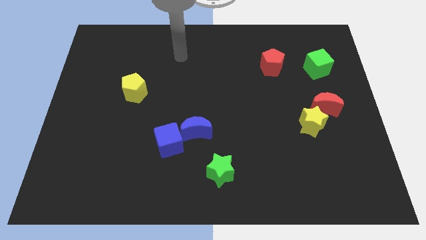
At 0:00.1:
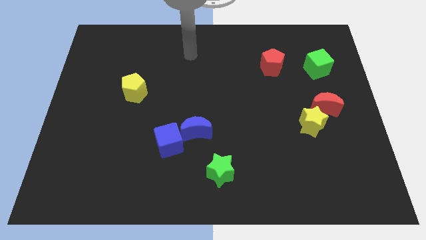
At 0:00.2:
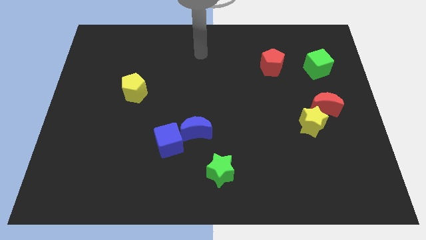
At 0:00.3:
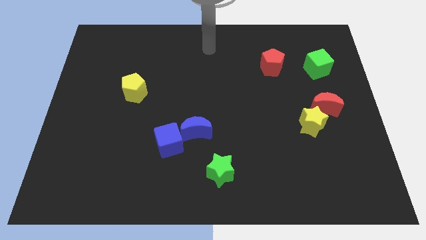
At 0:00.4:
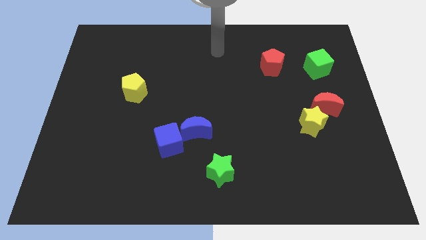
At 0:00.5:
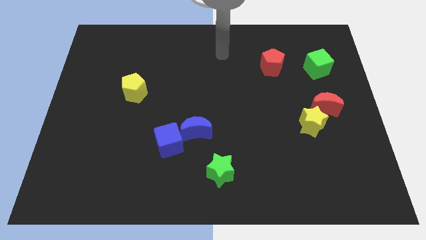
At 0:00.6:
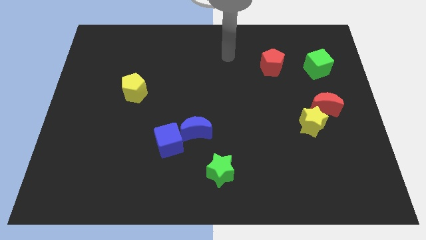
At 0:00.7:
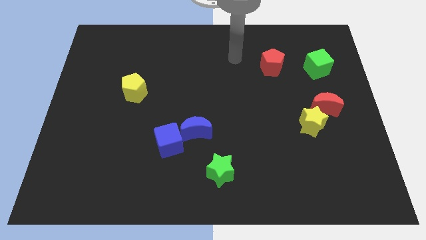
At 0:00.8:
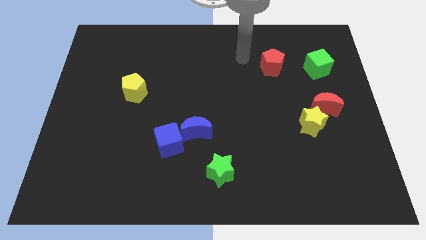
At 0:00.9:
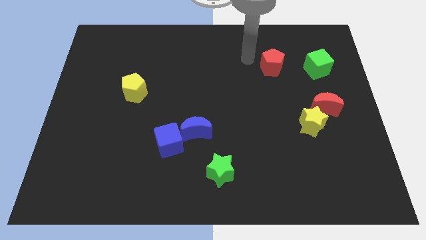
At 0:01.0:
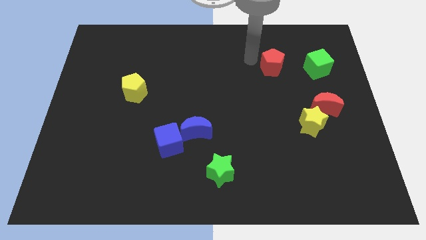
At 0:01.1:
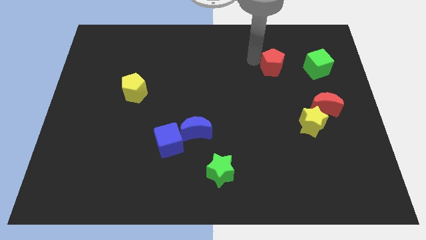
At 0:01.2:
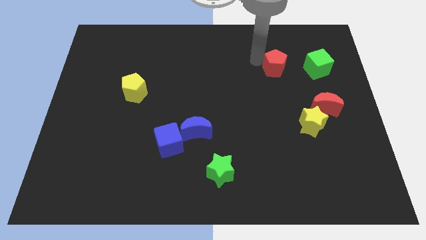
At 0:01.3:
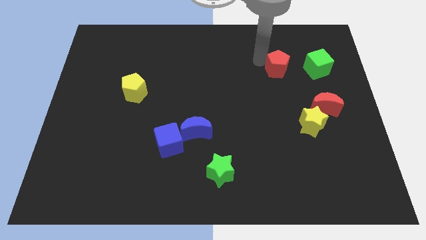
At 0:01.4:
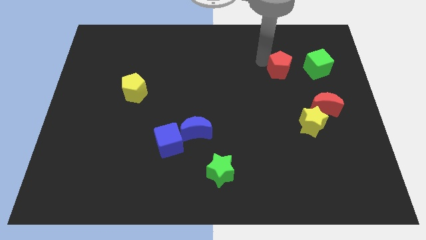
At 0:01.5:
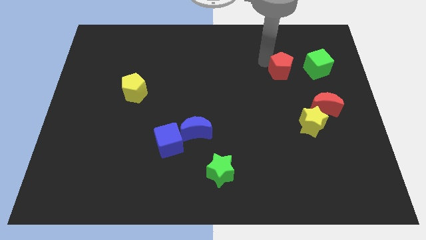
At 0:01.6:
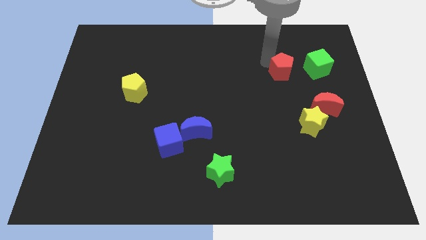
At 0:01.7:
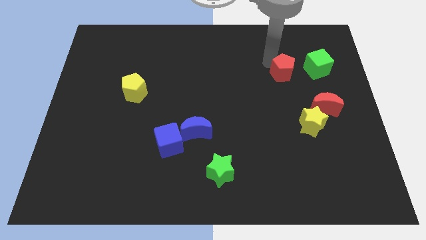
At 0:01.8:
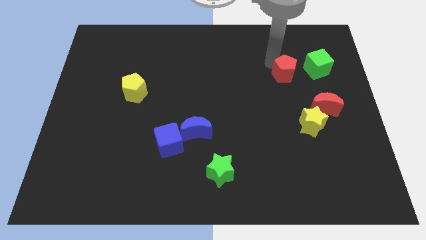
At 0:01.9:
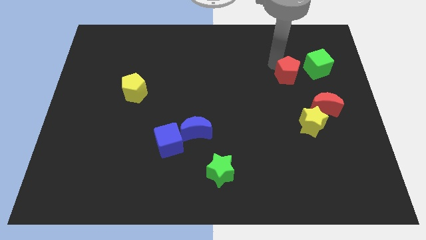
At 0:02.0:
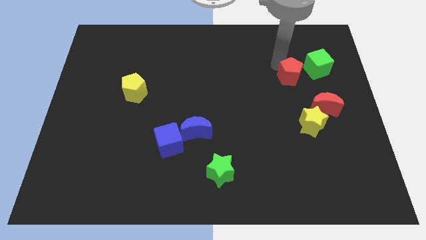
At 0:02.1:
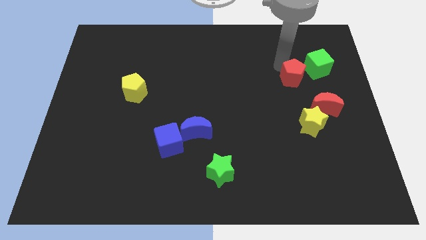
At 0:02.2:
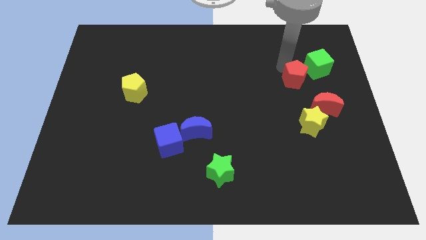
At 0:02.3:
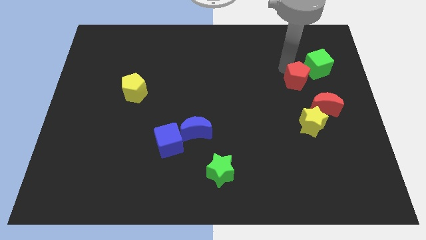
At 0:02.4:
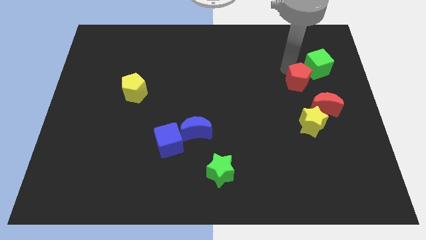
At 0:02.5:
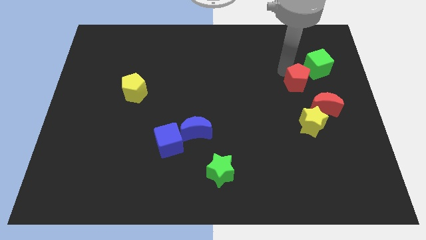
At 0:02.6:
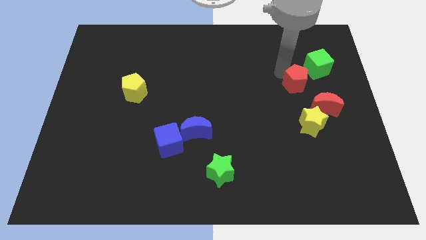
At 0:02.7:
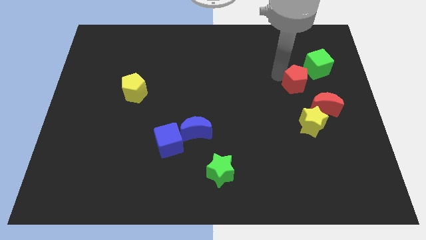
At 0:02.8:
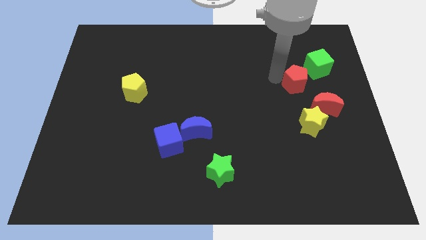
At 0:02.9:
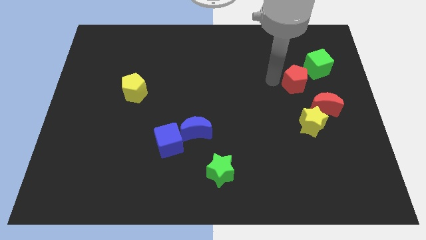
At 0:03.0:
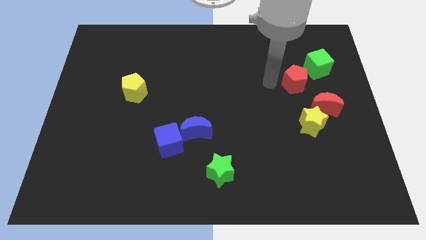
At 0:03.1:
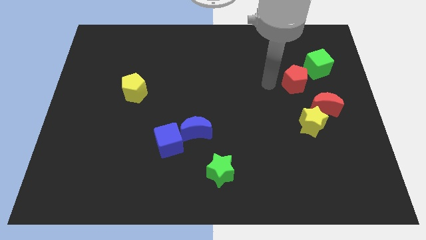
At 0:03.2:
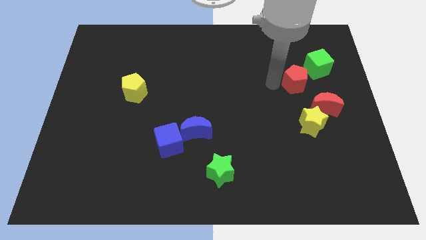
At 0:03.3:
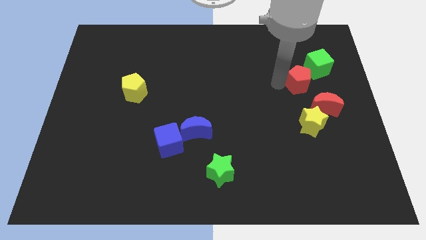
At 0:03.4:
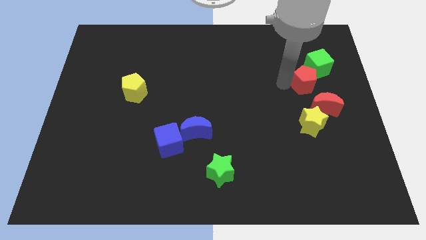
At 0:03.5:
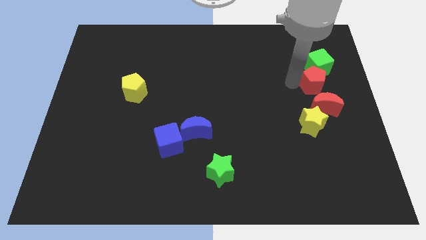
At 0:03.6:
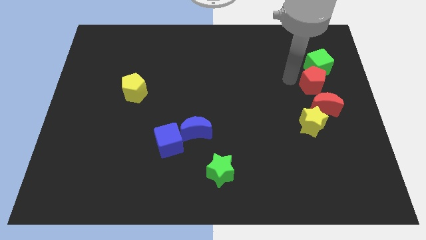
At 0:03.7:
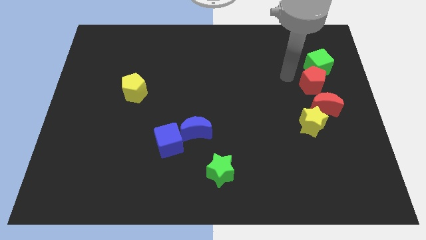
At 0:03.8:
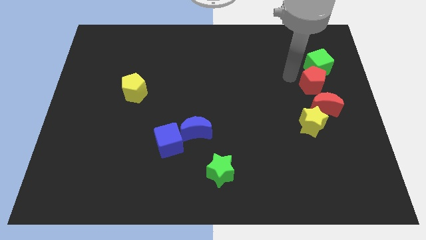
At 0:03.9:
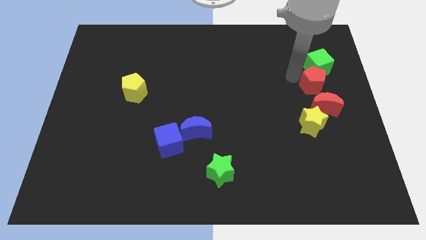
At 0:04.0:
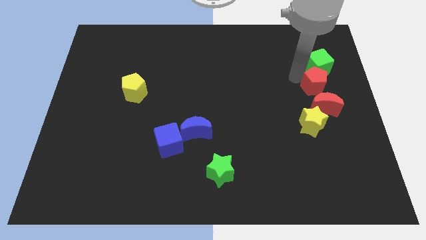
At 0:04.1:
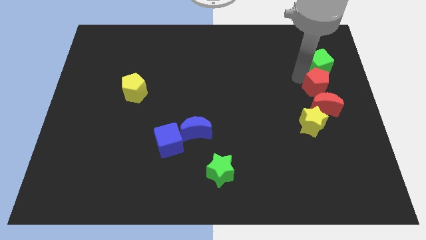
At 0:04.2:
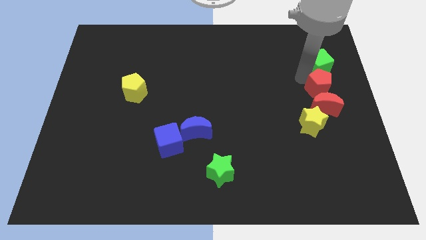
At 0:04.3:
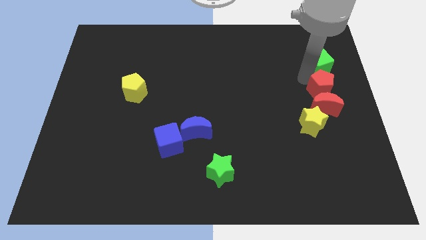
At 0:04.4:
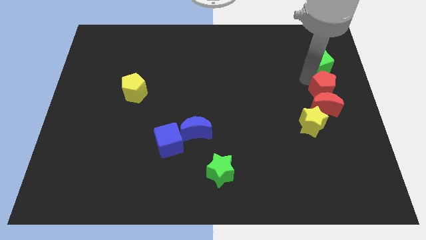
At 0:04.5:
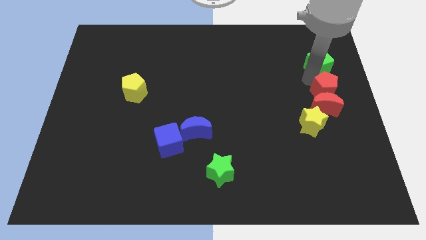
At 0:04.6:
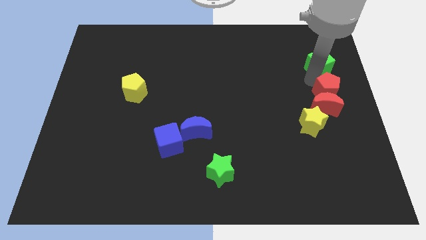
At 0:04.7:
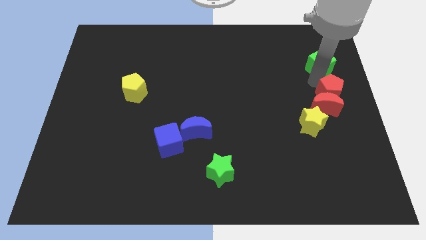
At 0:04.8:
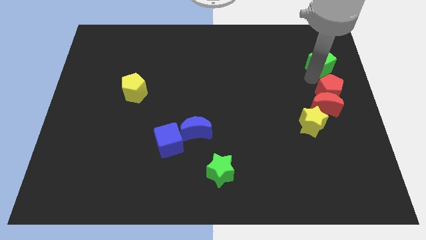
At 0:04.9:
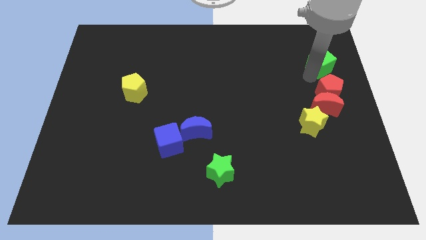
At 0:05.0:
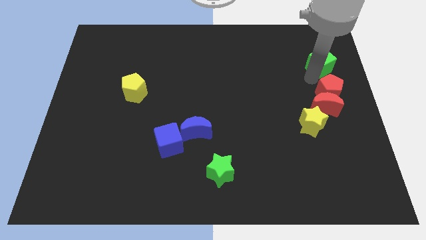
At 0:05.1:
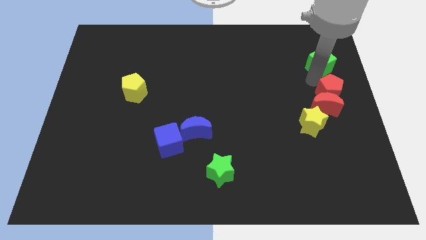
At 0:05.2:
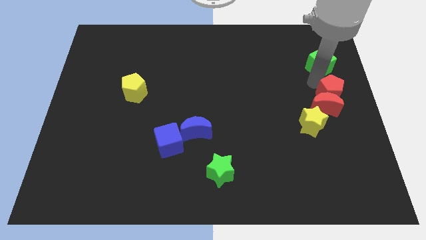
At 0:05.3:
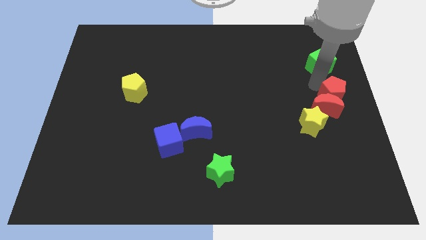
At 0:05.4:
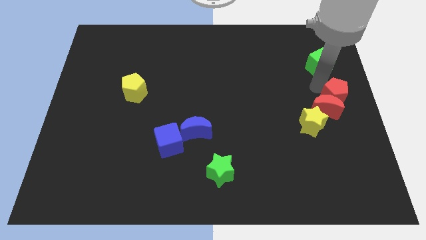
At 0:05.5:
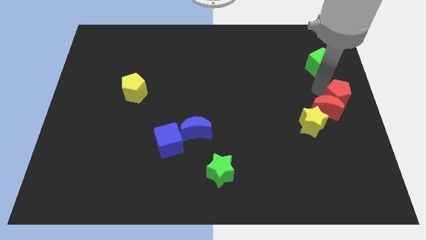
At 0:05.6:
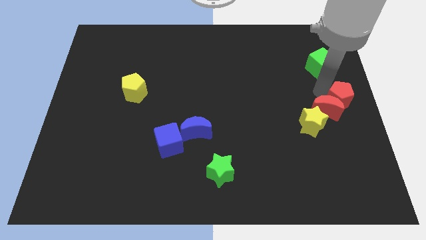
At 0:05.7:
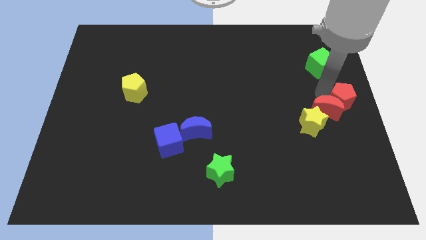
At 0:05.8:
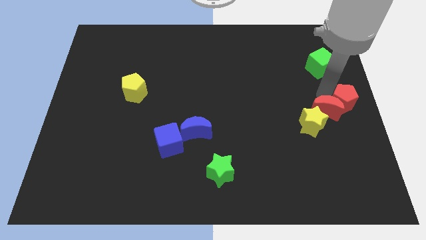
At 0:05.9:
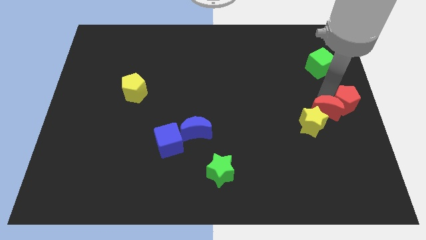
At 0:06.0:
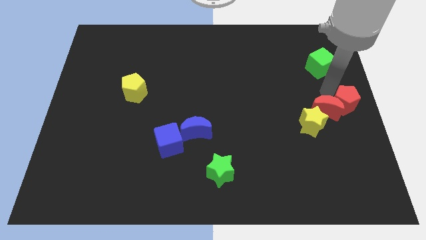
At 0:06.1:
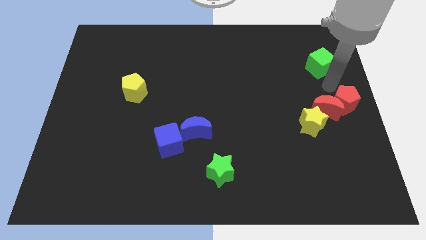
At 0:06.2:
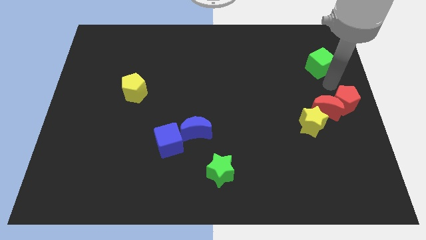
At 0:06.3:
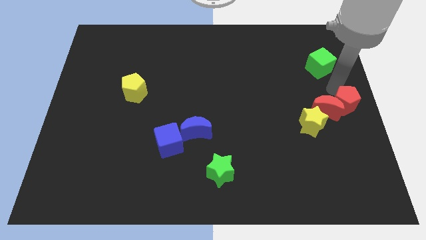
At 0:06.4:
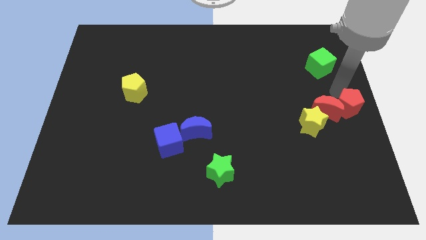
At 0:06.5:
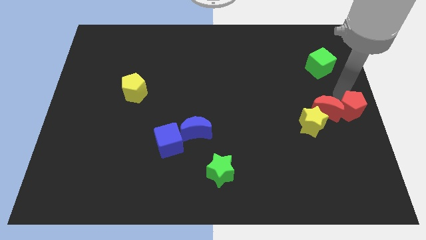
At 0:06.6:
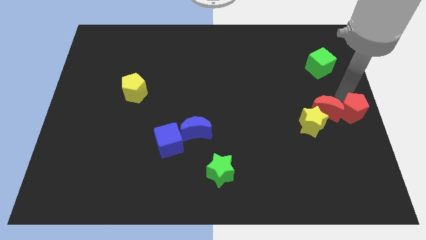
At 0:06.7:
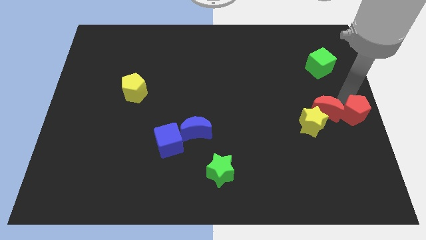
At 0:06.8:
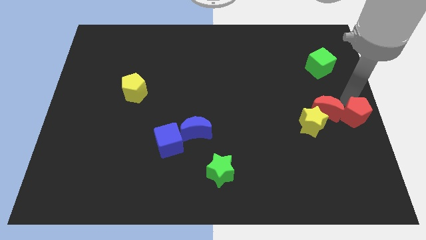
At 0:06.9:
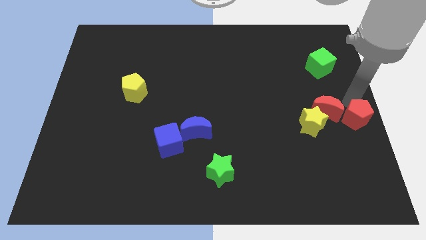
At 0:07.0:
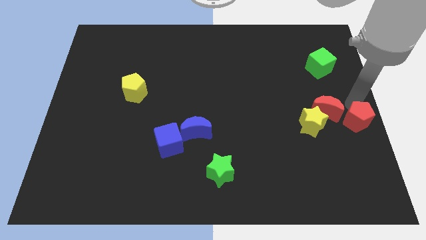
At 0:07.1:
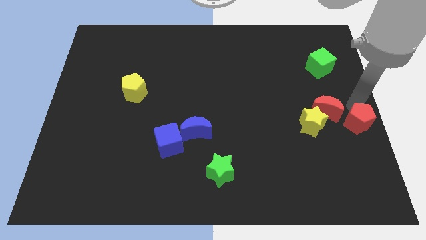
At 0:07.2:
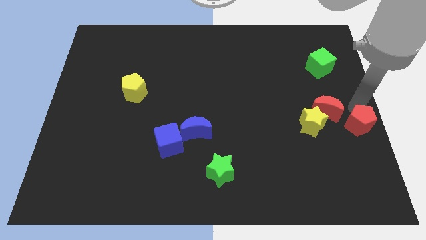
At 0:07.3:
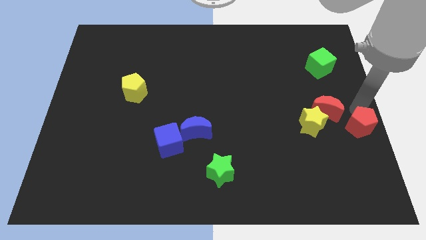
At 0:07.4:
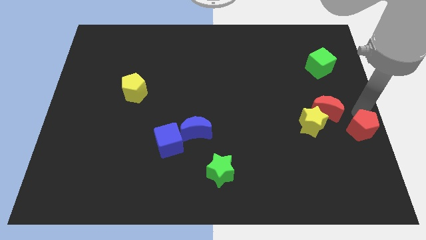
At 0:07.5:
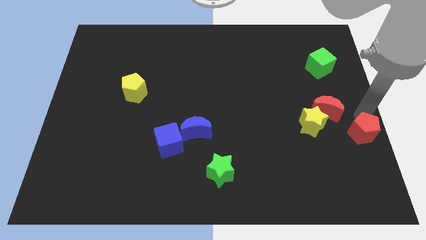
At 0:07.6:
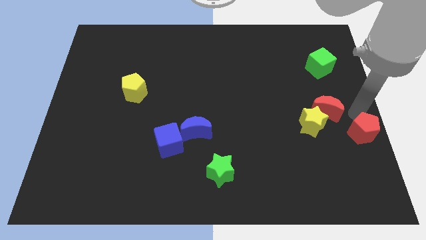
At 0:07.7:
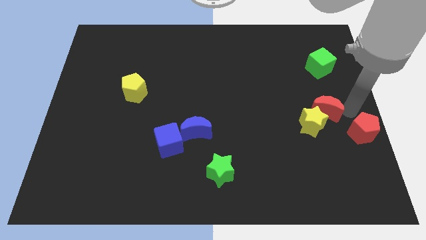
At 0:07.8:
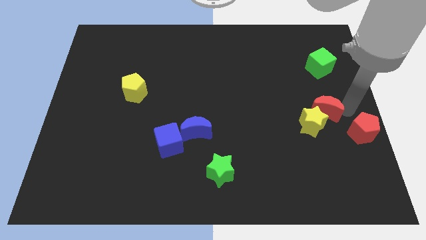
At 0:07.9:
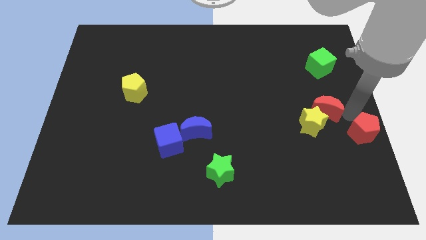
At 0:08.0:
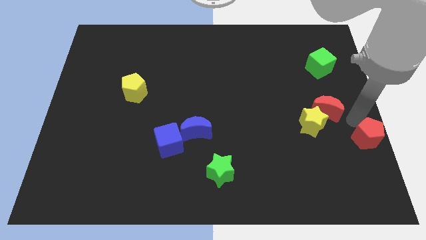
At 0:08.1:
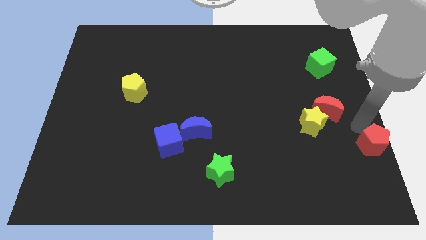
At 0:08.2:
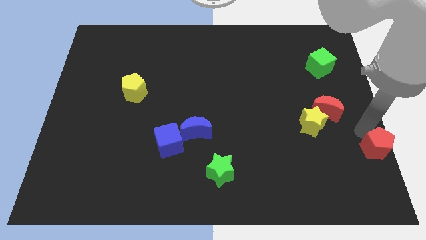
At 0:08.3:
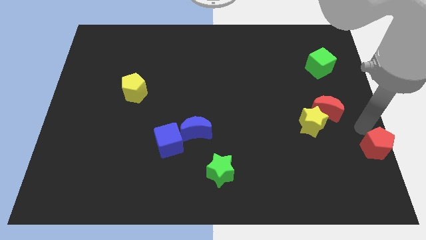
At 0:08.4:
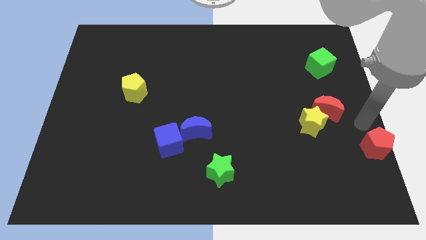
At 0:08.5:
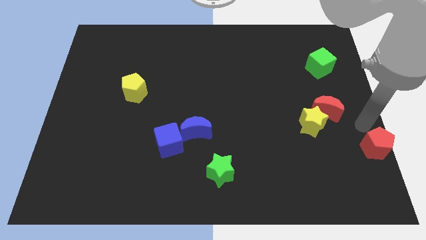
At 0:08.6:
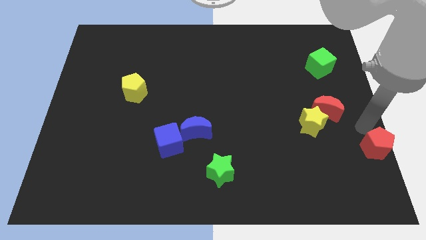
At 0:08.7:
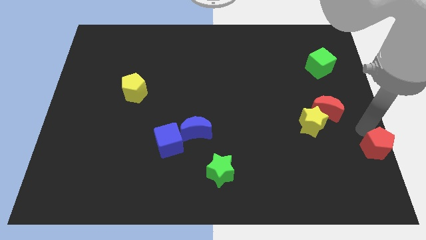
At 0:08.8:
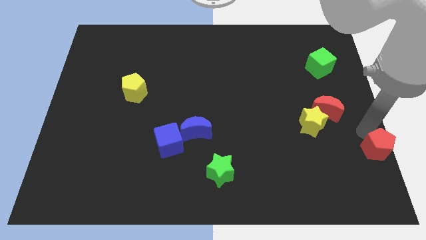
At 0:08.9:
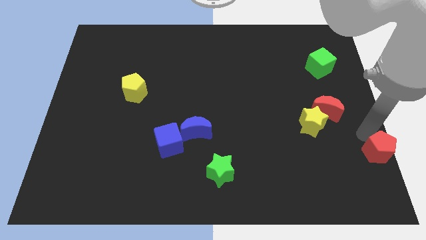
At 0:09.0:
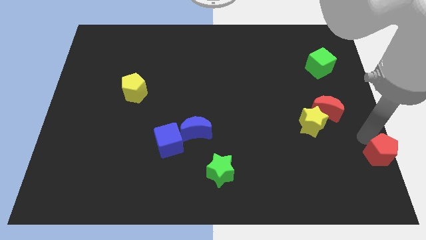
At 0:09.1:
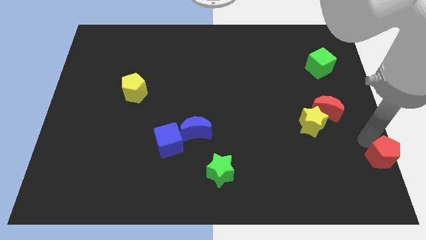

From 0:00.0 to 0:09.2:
push the red pentagon to the bottom right corner
